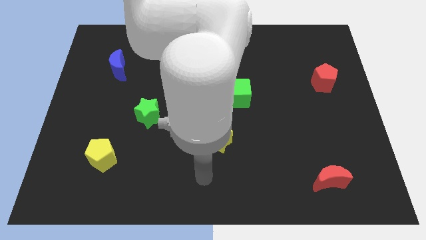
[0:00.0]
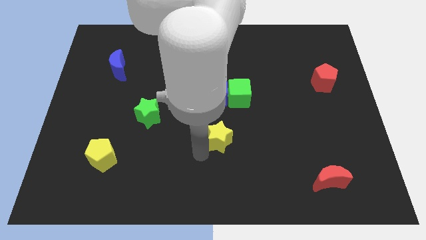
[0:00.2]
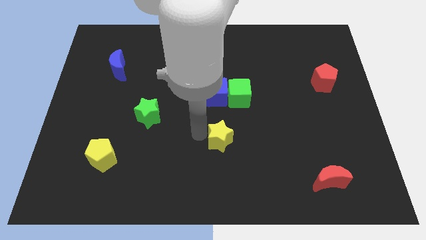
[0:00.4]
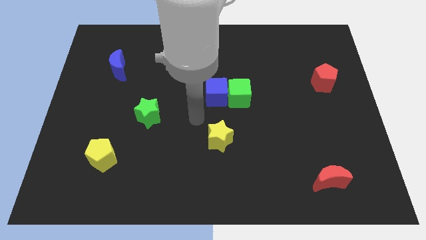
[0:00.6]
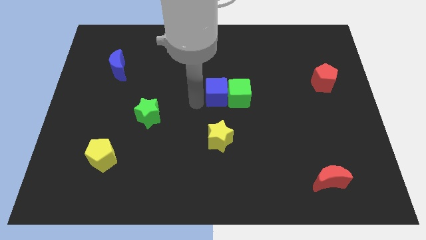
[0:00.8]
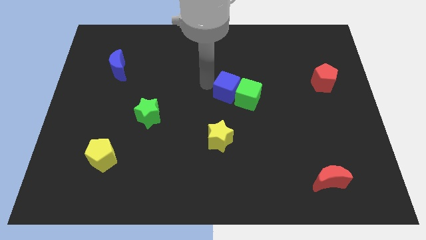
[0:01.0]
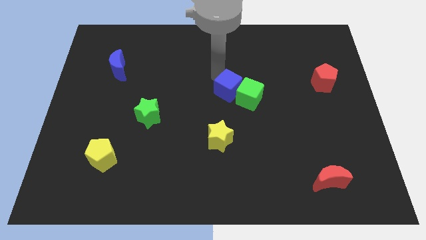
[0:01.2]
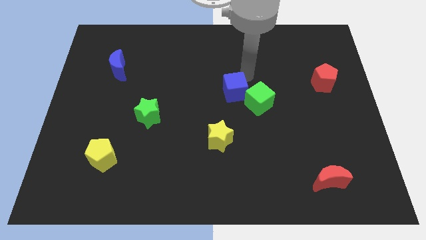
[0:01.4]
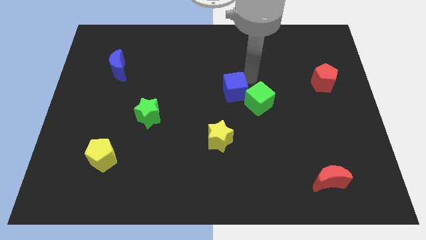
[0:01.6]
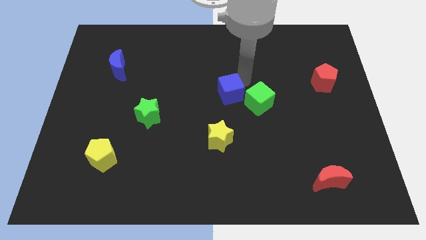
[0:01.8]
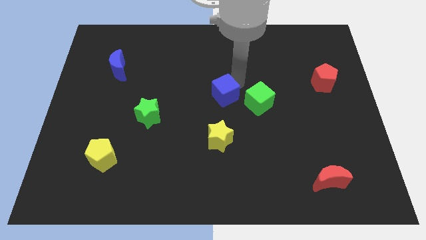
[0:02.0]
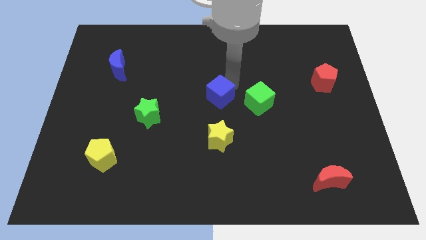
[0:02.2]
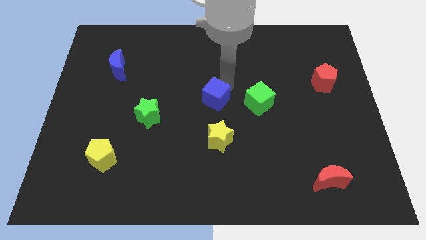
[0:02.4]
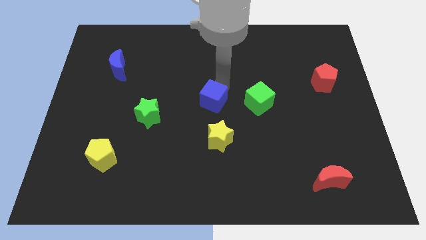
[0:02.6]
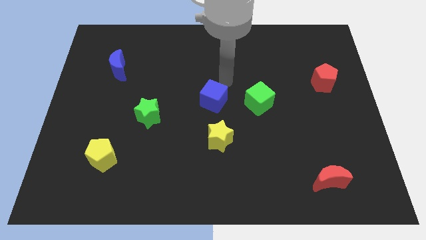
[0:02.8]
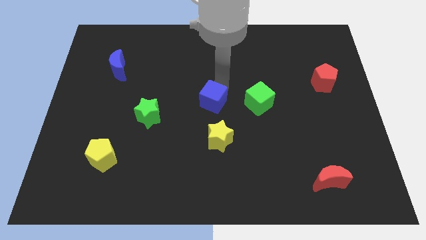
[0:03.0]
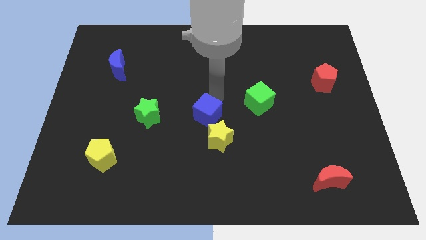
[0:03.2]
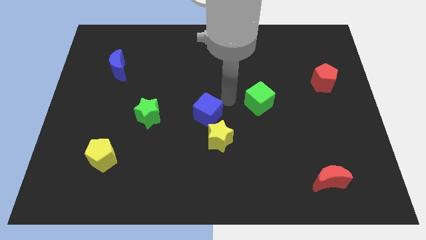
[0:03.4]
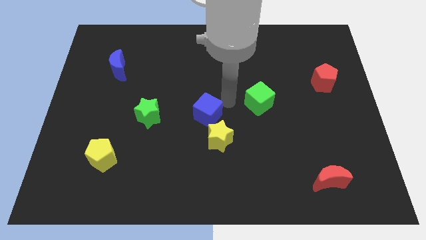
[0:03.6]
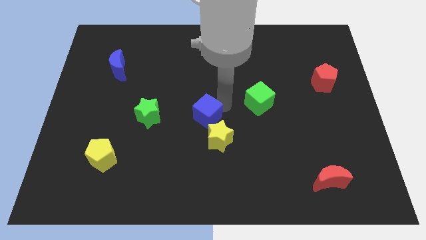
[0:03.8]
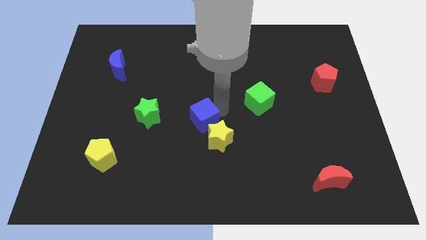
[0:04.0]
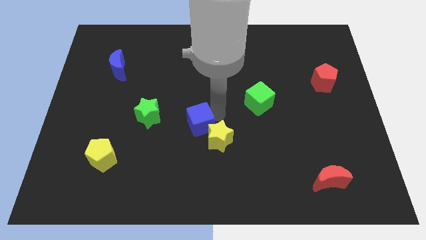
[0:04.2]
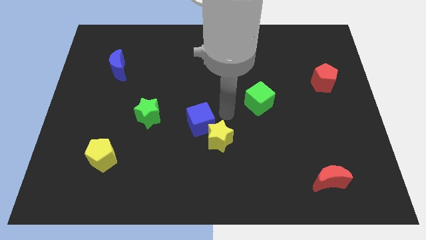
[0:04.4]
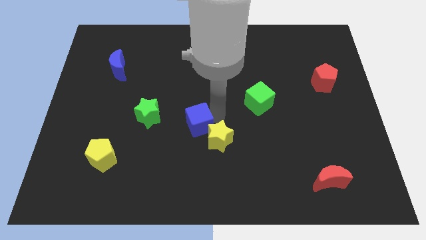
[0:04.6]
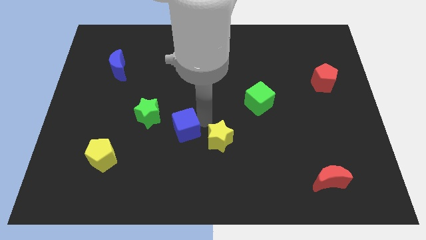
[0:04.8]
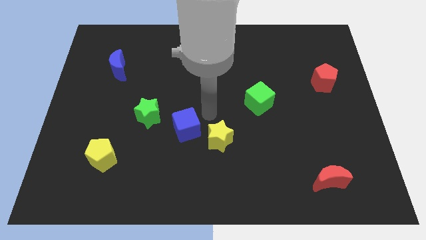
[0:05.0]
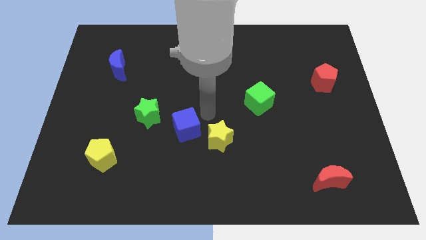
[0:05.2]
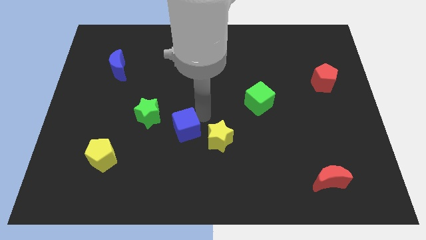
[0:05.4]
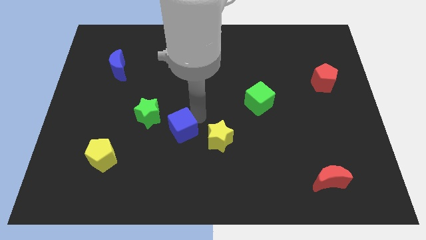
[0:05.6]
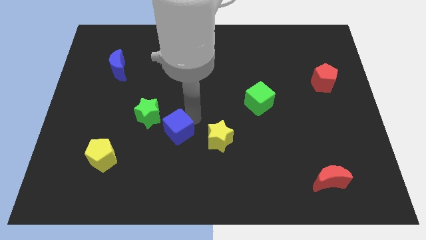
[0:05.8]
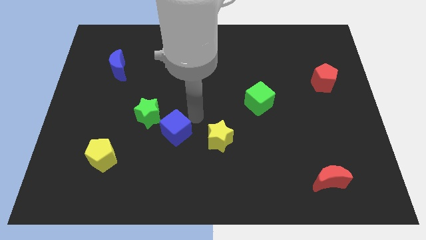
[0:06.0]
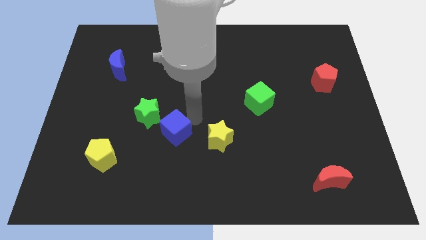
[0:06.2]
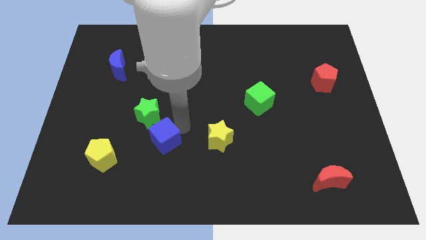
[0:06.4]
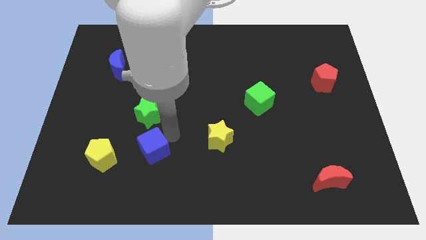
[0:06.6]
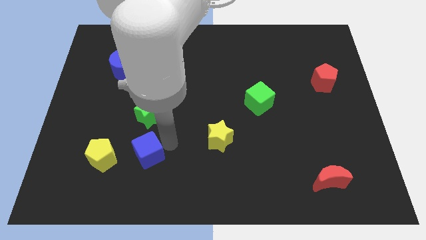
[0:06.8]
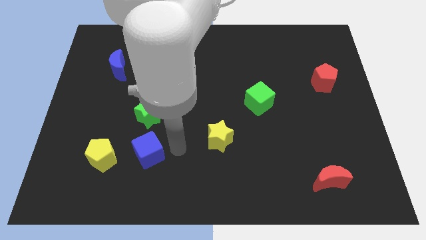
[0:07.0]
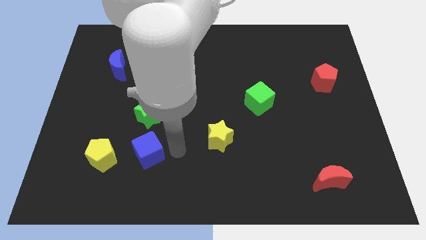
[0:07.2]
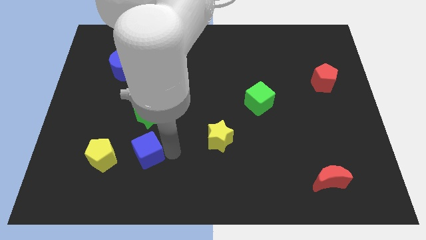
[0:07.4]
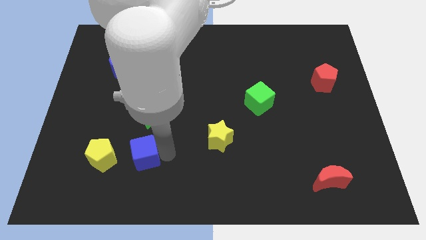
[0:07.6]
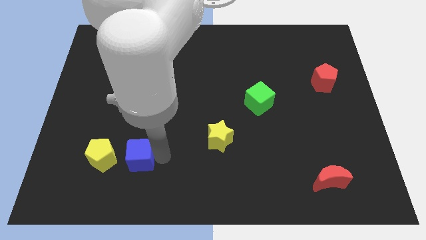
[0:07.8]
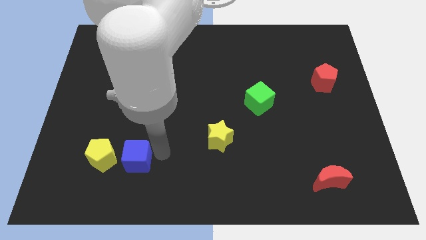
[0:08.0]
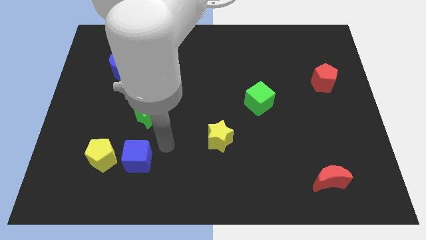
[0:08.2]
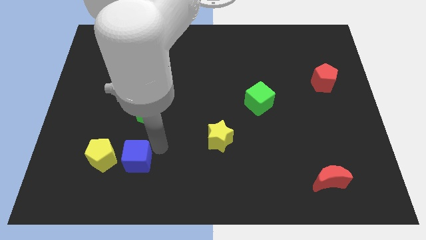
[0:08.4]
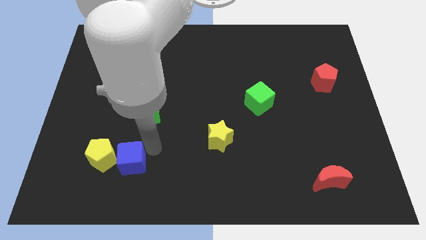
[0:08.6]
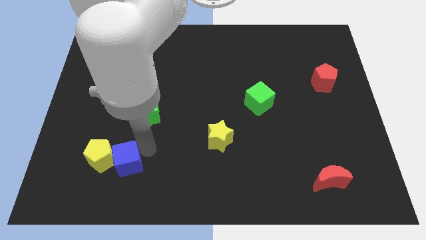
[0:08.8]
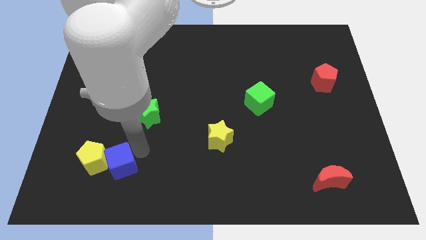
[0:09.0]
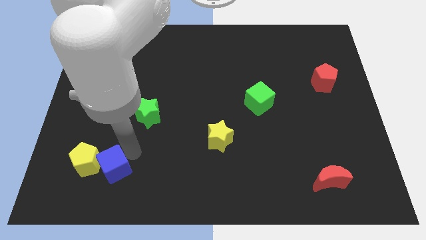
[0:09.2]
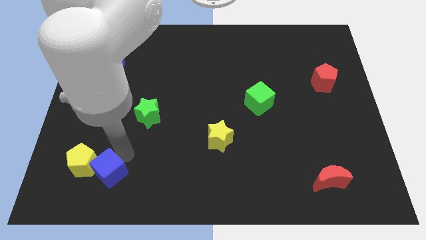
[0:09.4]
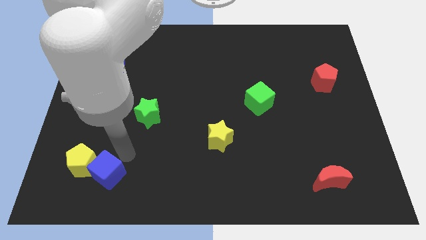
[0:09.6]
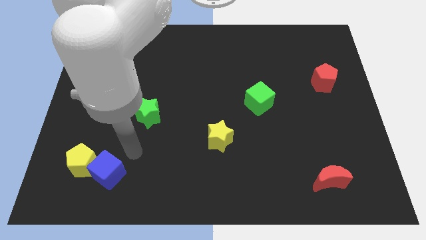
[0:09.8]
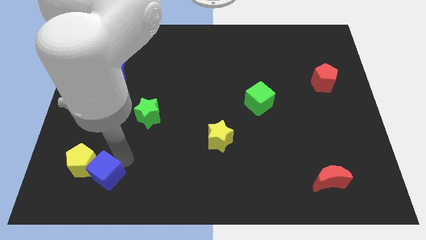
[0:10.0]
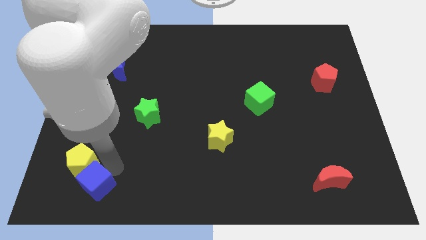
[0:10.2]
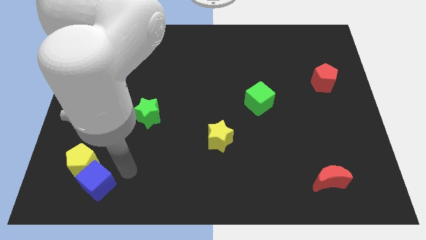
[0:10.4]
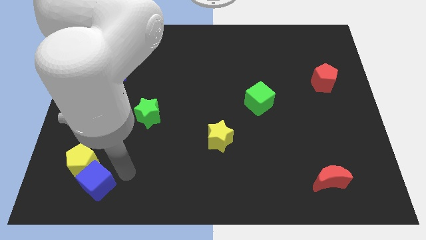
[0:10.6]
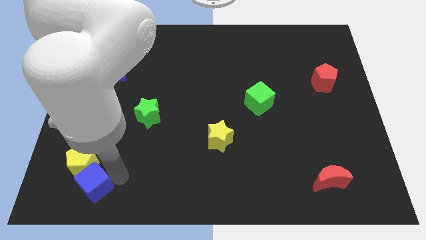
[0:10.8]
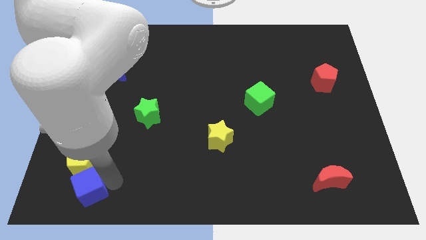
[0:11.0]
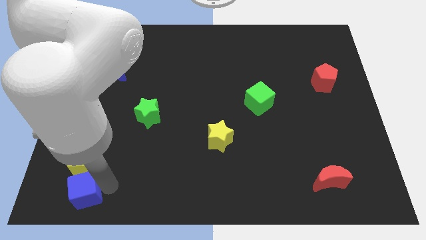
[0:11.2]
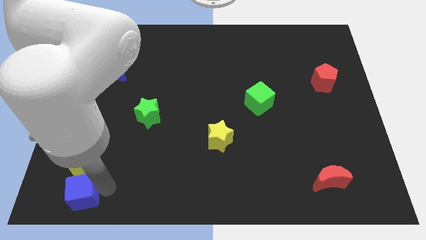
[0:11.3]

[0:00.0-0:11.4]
put the blue cube to the lower left corner

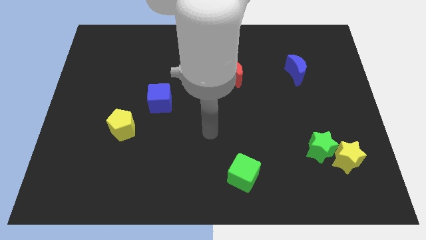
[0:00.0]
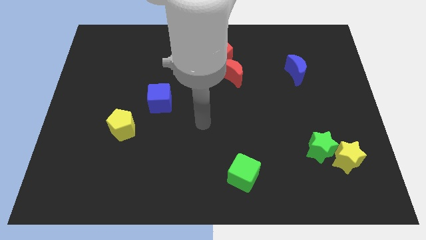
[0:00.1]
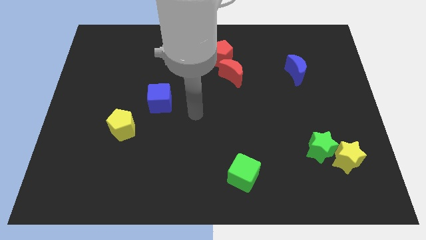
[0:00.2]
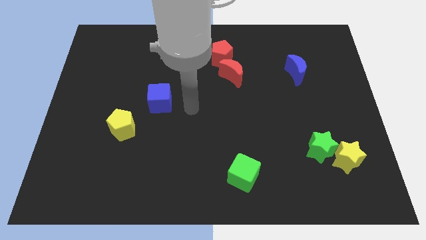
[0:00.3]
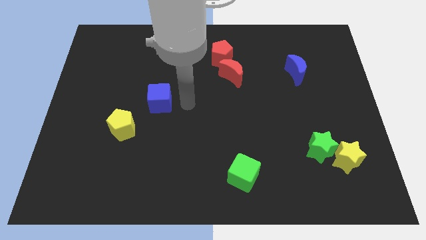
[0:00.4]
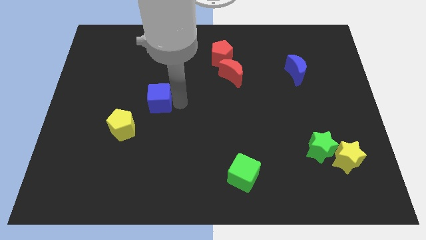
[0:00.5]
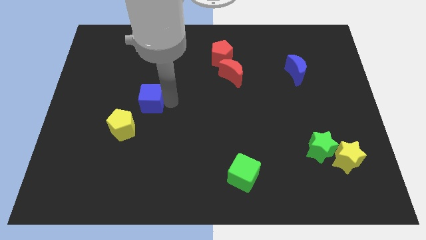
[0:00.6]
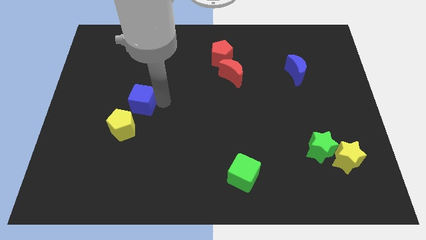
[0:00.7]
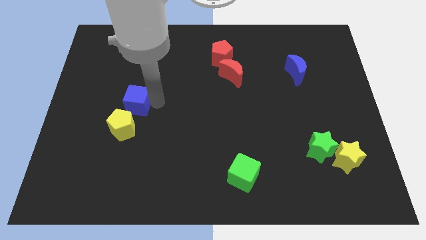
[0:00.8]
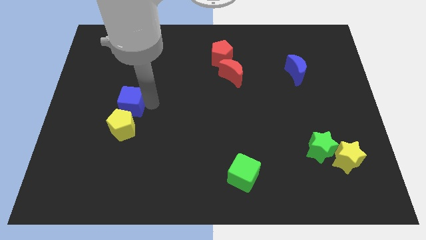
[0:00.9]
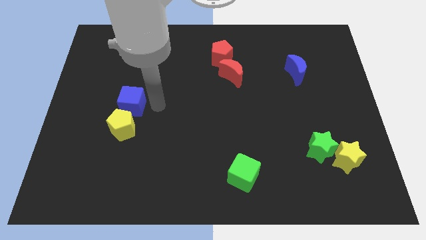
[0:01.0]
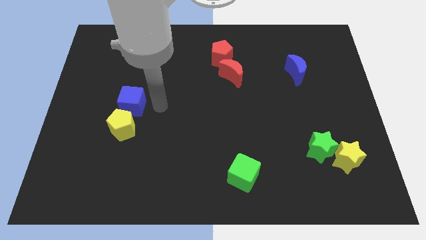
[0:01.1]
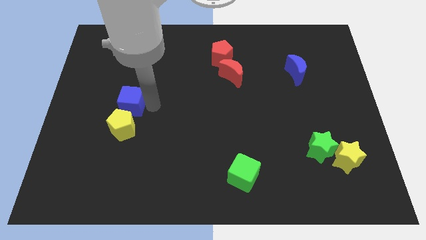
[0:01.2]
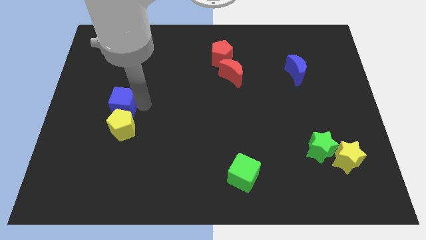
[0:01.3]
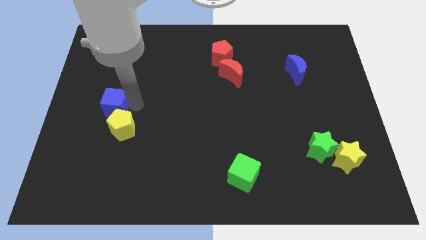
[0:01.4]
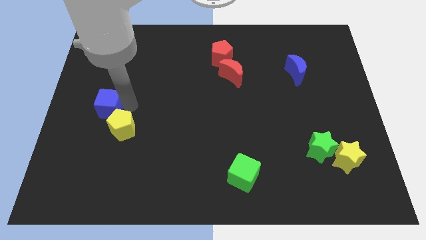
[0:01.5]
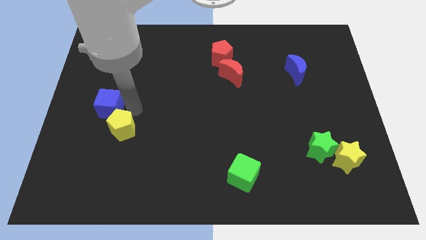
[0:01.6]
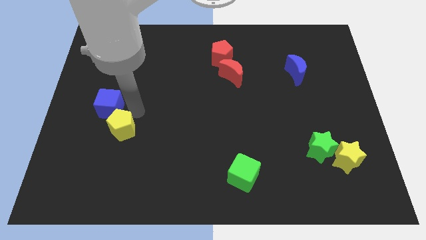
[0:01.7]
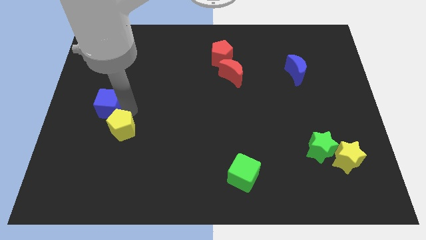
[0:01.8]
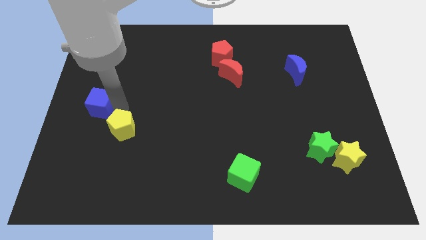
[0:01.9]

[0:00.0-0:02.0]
push the blue cube to the left side
